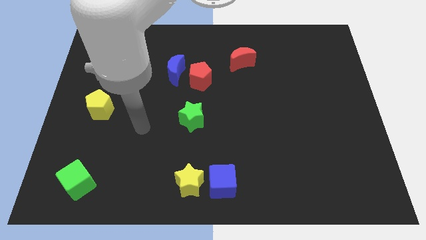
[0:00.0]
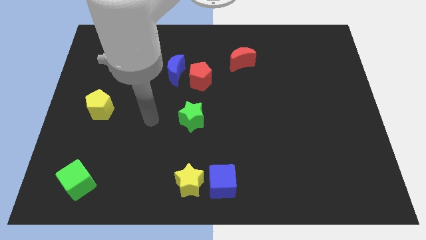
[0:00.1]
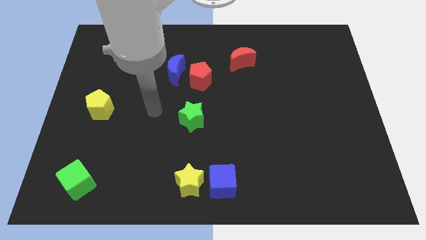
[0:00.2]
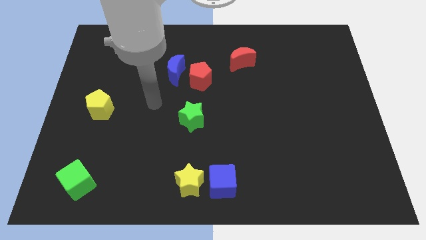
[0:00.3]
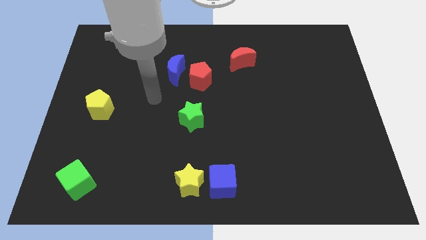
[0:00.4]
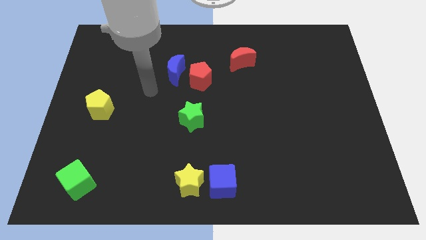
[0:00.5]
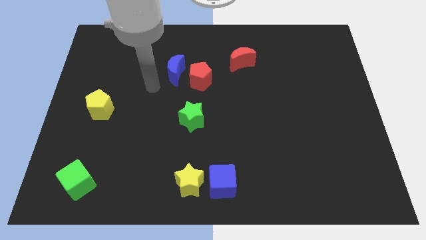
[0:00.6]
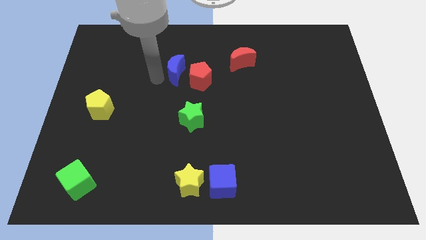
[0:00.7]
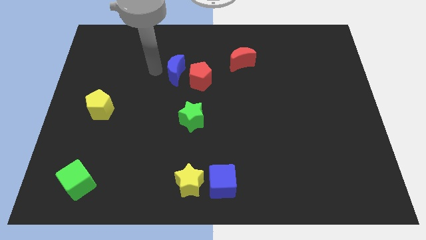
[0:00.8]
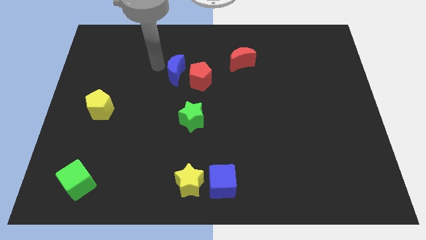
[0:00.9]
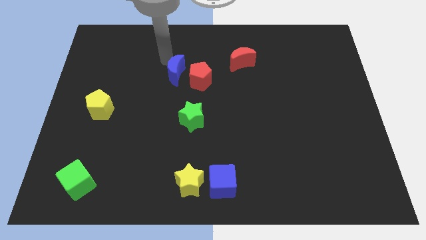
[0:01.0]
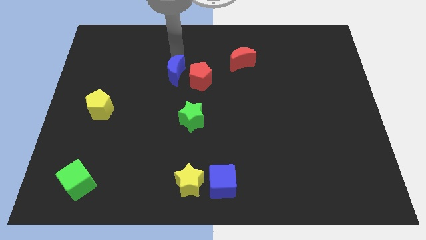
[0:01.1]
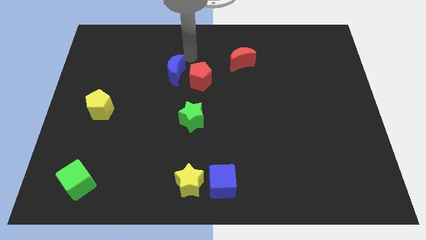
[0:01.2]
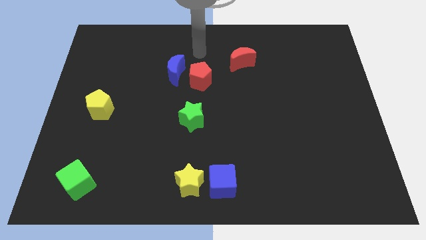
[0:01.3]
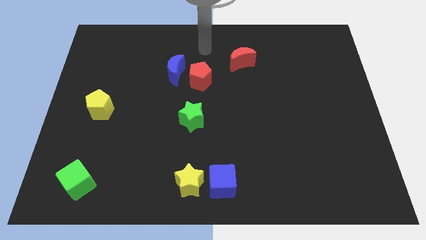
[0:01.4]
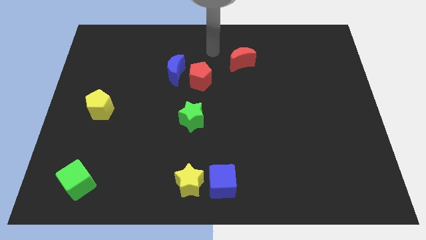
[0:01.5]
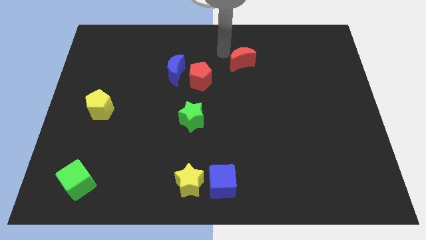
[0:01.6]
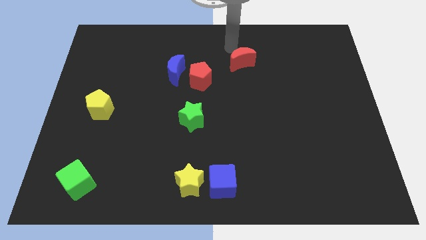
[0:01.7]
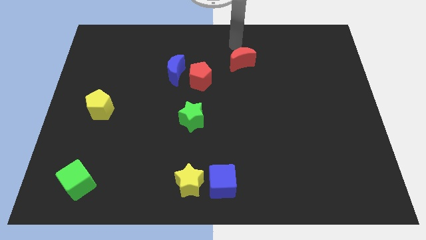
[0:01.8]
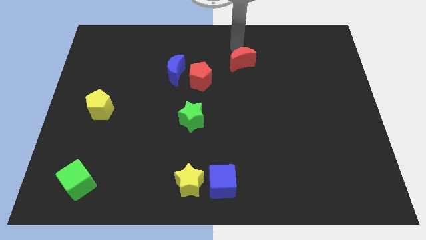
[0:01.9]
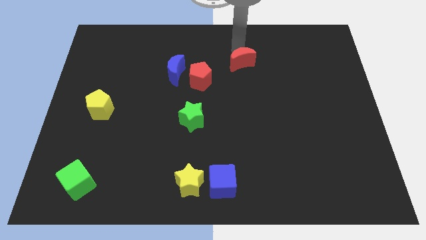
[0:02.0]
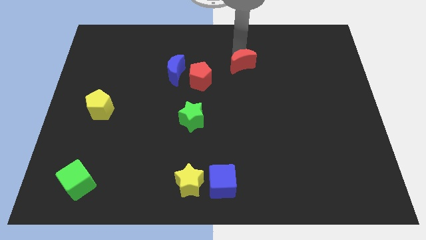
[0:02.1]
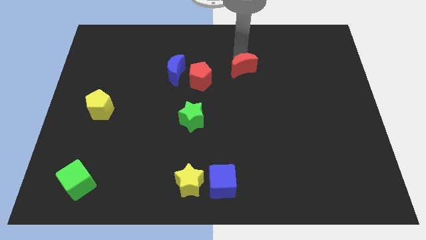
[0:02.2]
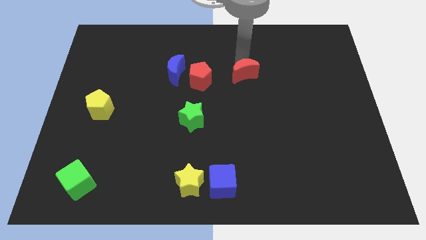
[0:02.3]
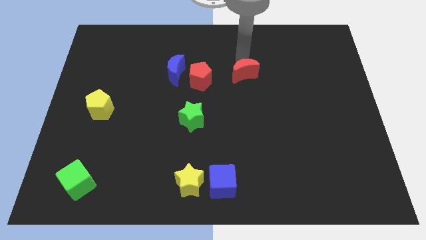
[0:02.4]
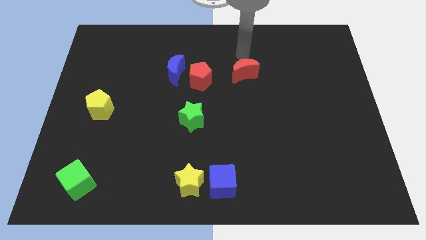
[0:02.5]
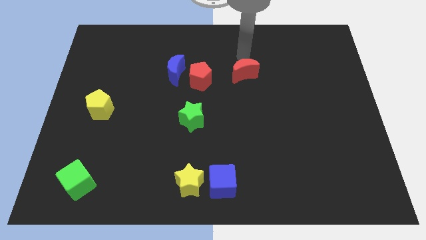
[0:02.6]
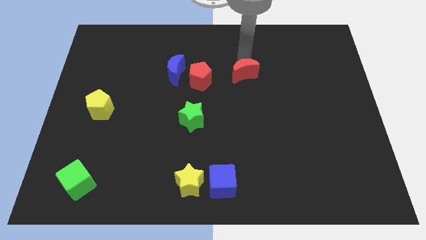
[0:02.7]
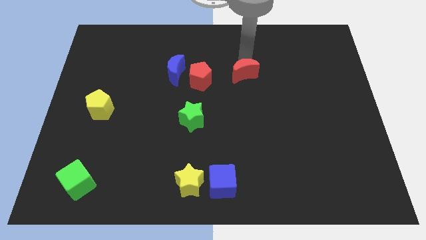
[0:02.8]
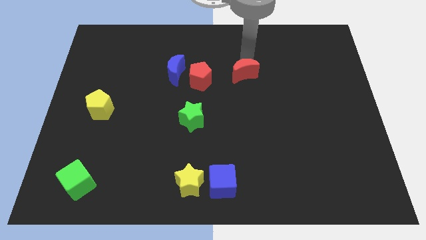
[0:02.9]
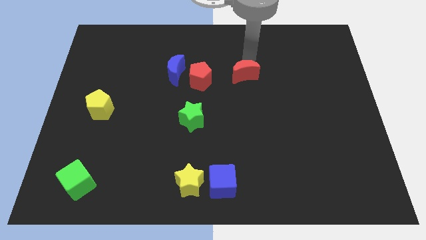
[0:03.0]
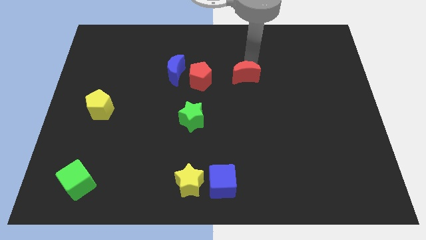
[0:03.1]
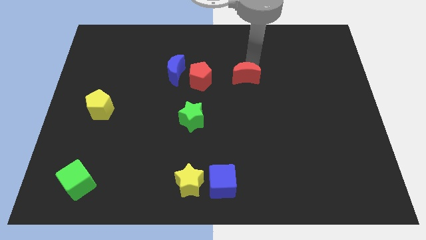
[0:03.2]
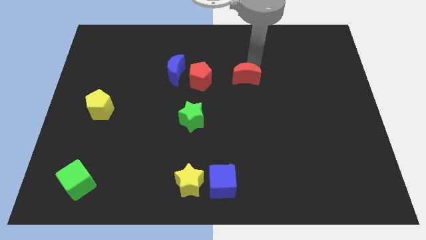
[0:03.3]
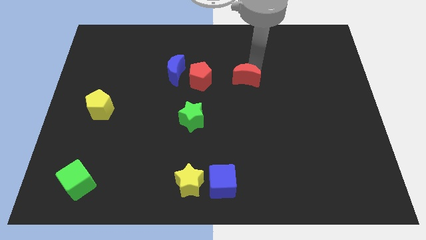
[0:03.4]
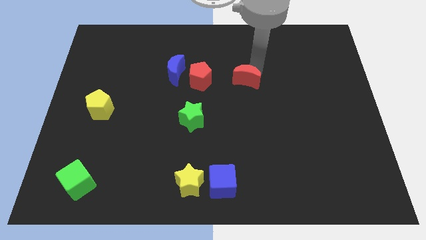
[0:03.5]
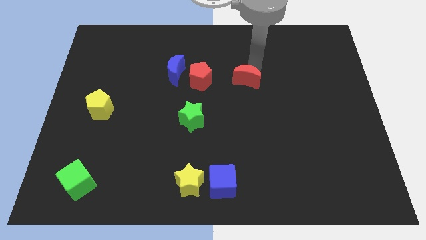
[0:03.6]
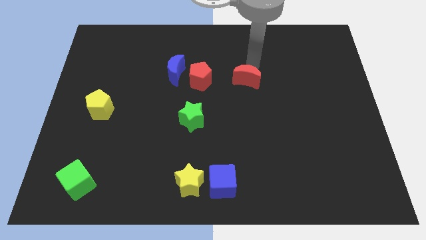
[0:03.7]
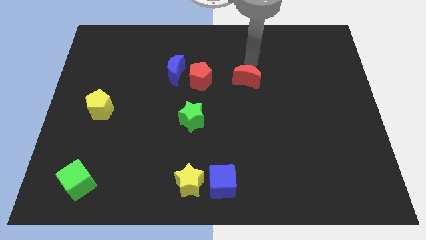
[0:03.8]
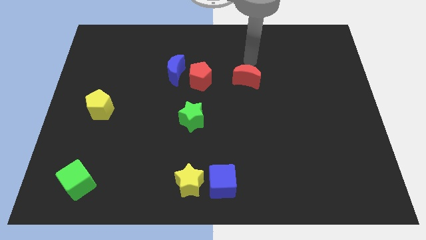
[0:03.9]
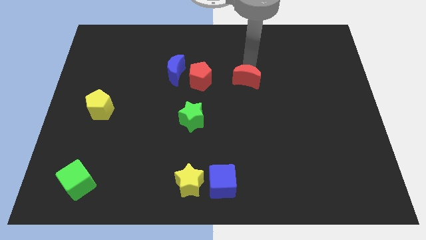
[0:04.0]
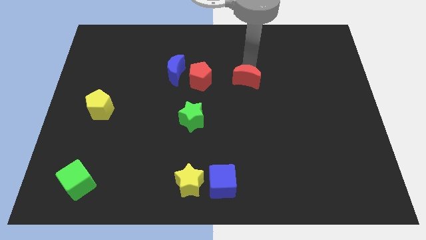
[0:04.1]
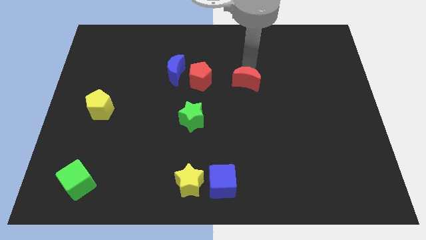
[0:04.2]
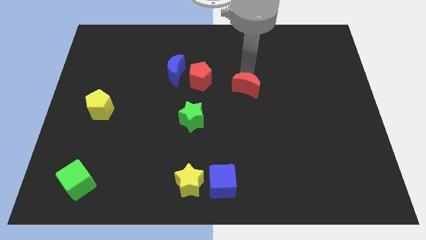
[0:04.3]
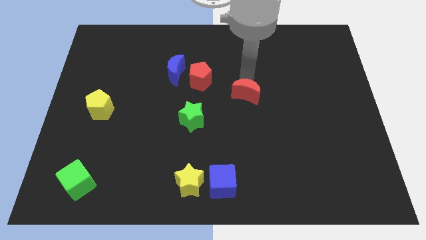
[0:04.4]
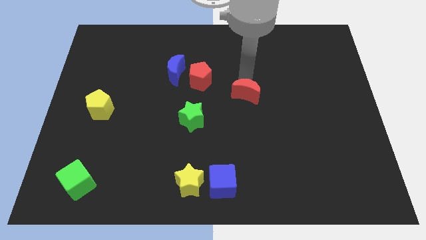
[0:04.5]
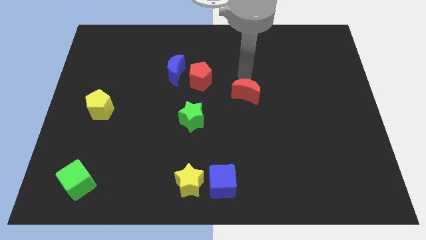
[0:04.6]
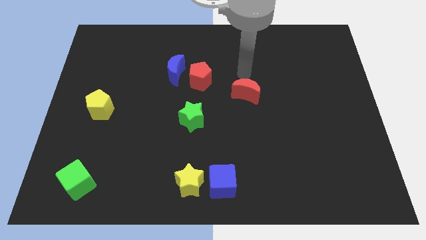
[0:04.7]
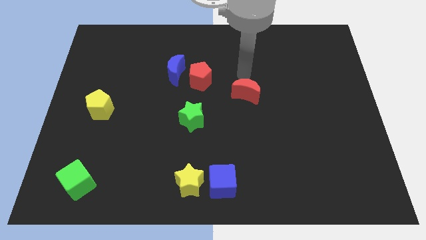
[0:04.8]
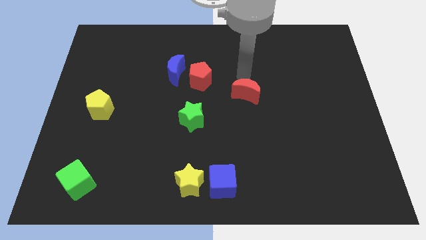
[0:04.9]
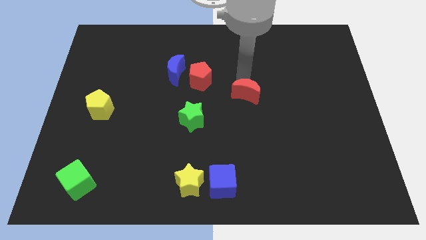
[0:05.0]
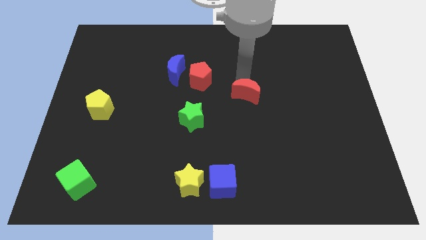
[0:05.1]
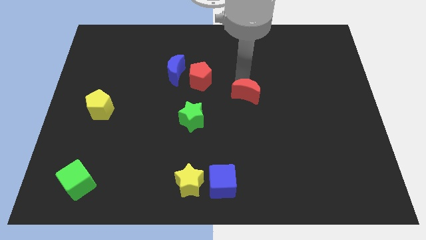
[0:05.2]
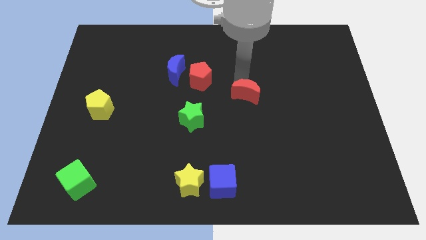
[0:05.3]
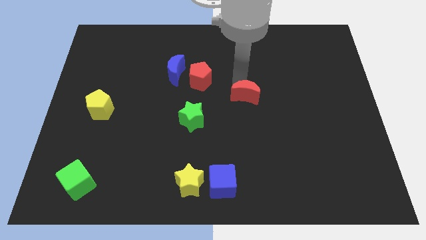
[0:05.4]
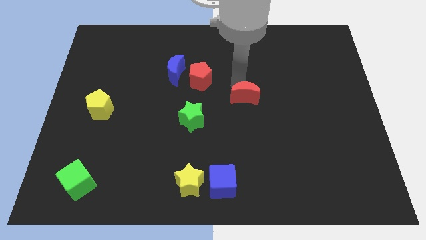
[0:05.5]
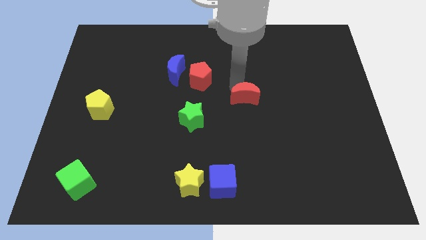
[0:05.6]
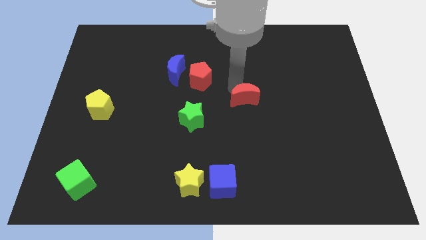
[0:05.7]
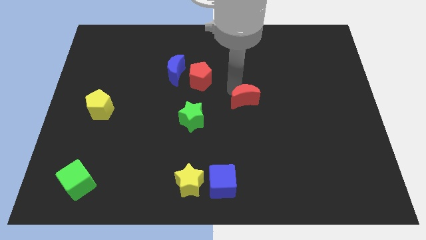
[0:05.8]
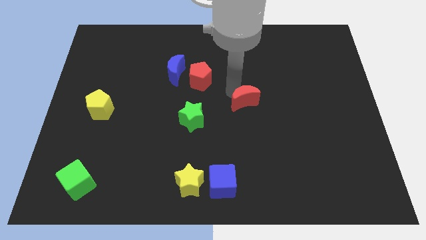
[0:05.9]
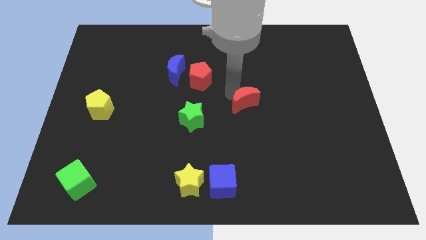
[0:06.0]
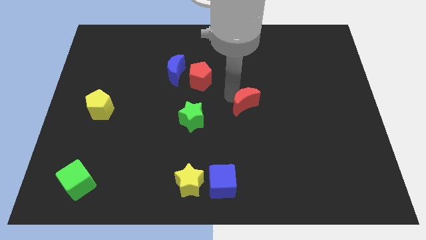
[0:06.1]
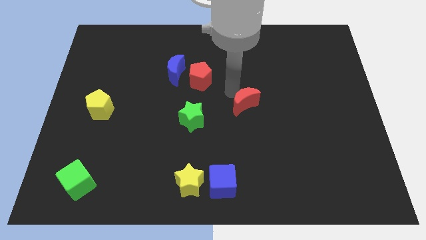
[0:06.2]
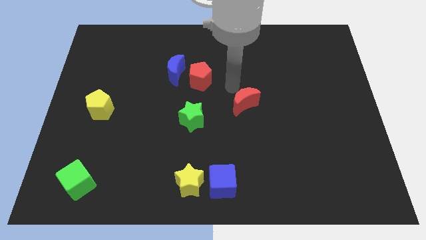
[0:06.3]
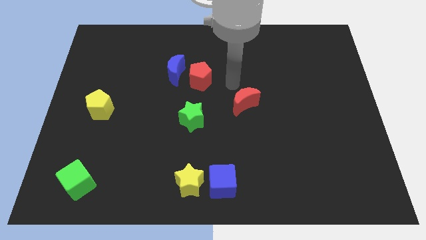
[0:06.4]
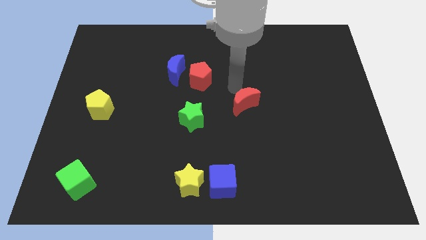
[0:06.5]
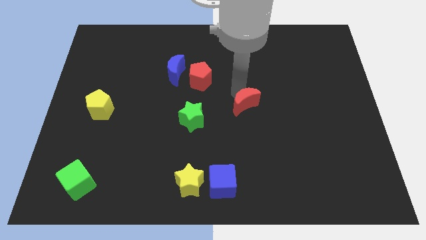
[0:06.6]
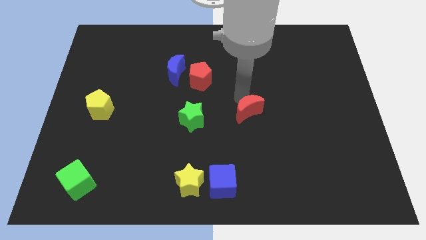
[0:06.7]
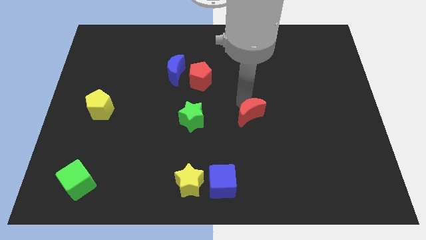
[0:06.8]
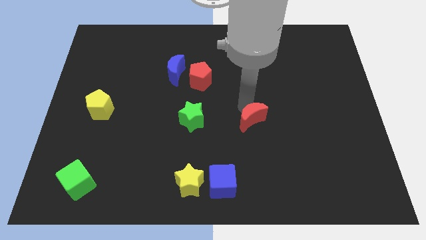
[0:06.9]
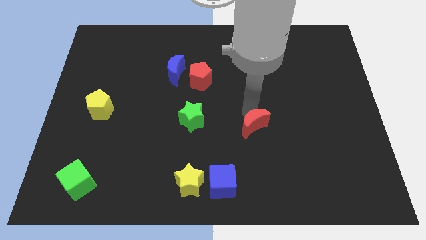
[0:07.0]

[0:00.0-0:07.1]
move the red moon downwards

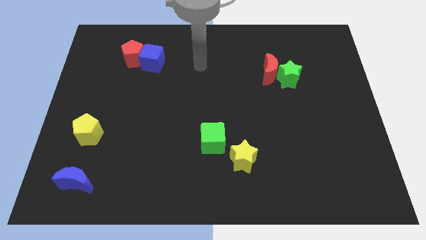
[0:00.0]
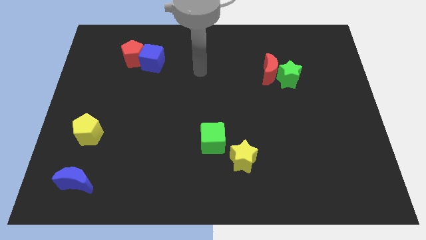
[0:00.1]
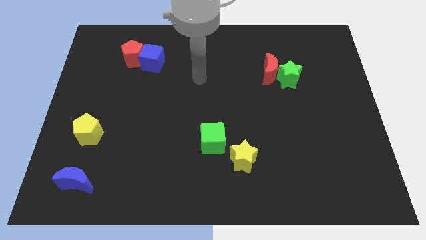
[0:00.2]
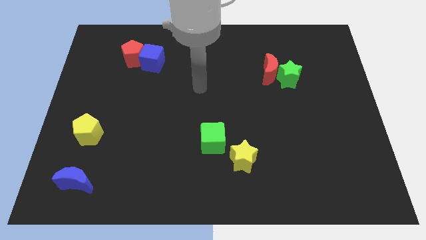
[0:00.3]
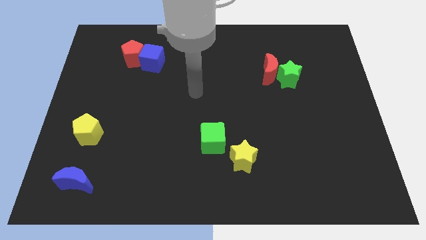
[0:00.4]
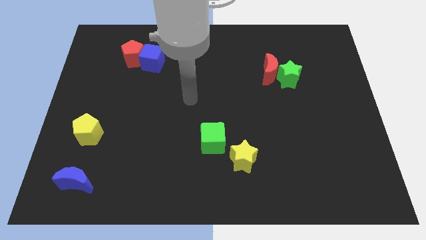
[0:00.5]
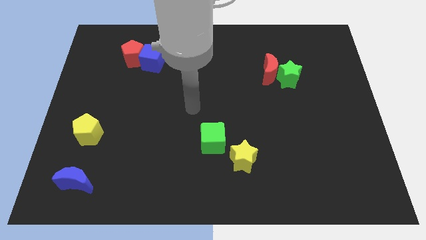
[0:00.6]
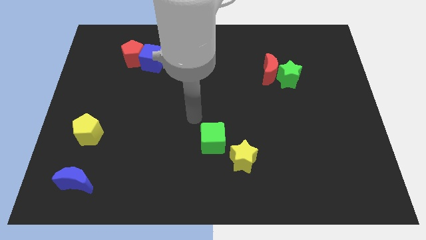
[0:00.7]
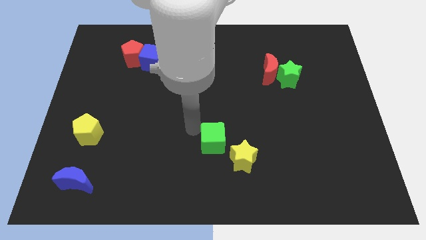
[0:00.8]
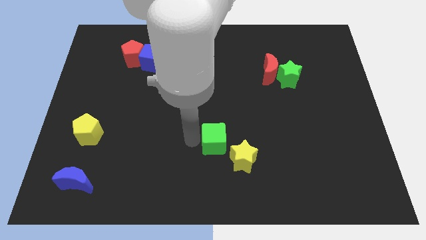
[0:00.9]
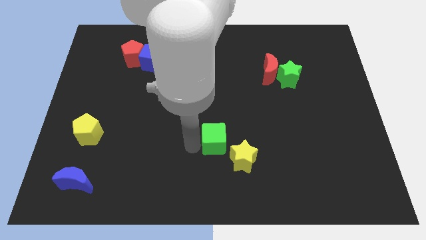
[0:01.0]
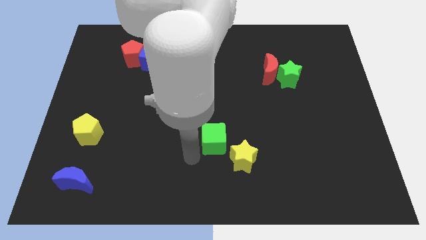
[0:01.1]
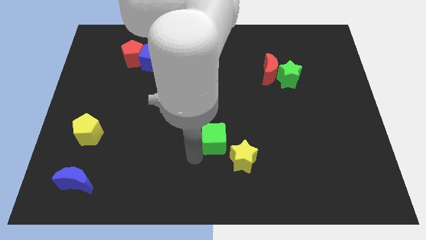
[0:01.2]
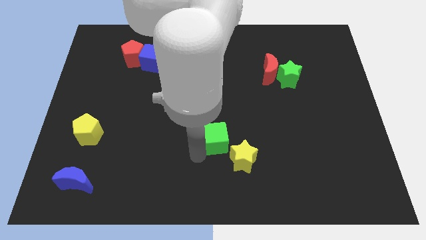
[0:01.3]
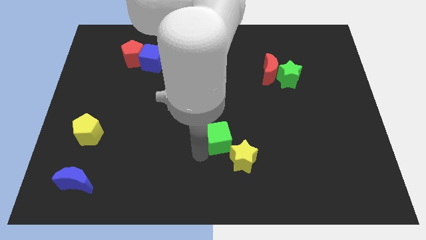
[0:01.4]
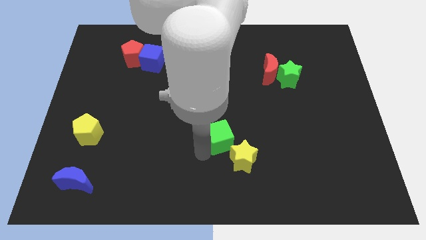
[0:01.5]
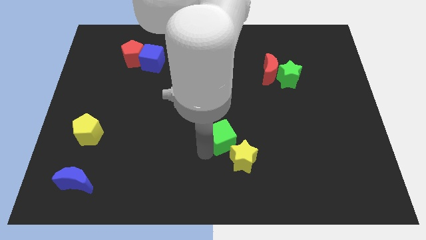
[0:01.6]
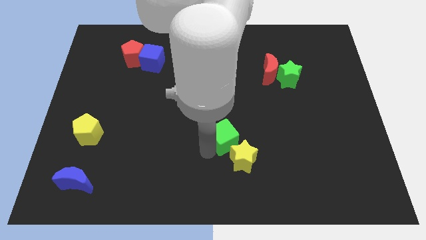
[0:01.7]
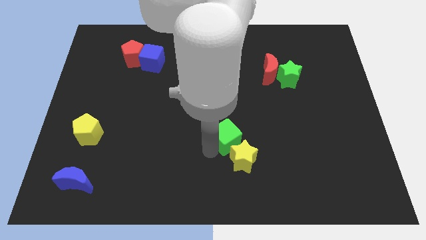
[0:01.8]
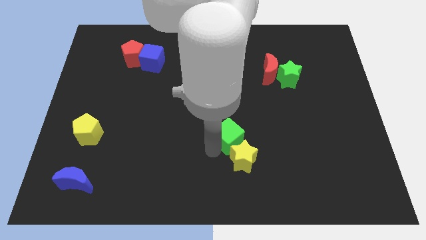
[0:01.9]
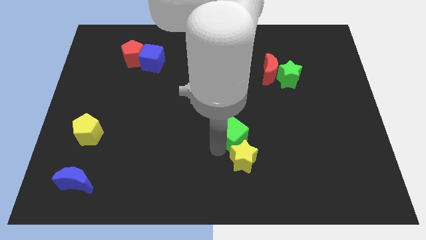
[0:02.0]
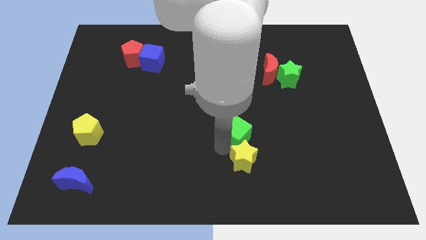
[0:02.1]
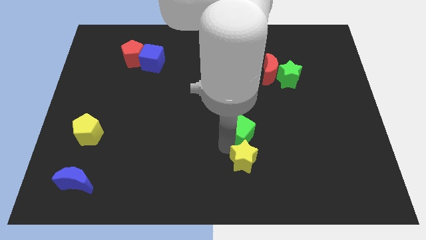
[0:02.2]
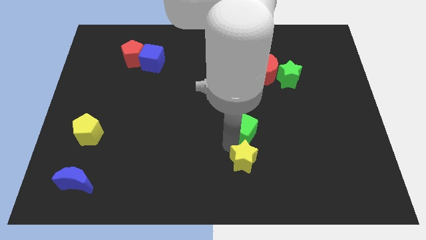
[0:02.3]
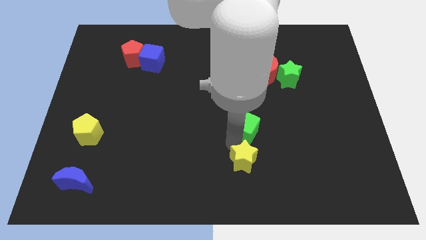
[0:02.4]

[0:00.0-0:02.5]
slightly push the green cube upwards and right diagonally
